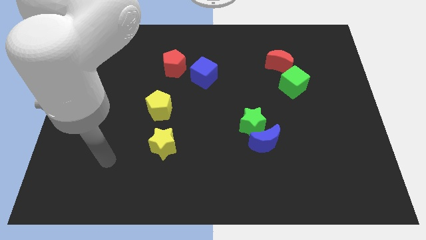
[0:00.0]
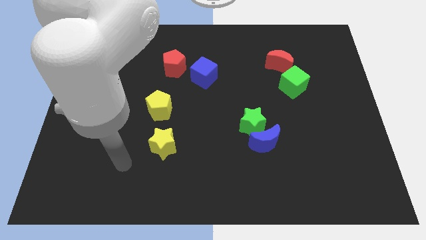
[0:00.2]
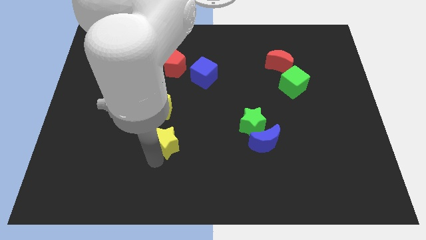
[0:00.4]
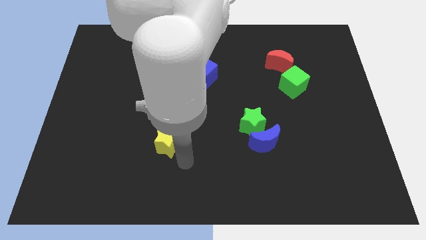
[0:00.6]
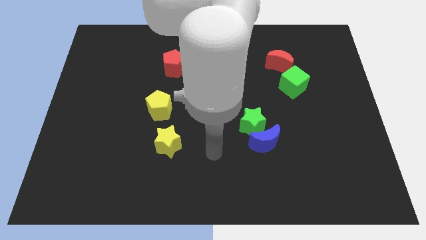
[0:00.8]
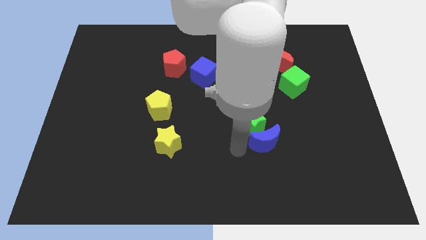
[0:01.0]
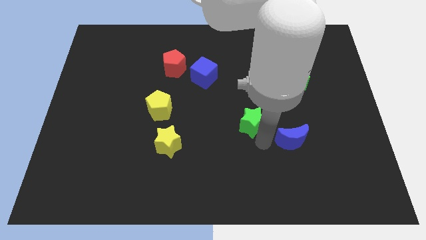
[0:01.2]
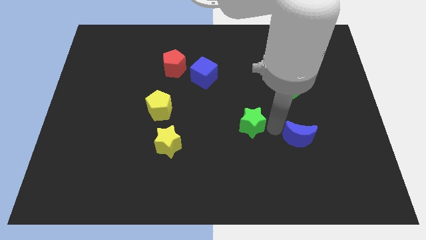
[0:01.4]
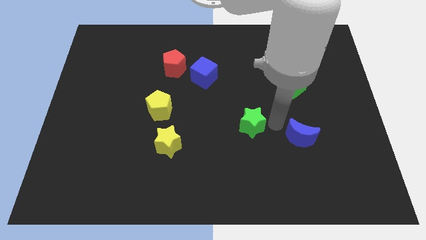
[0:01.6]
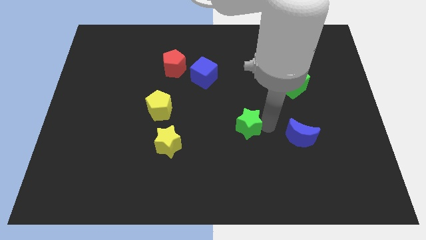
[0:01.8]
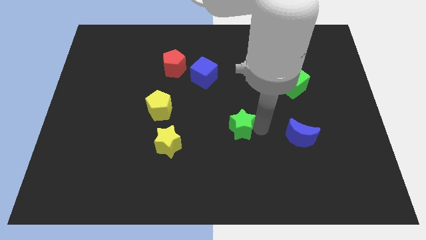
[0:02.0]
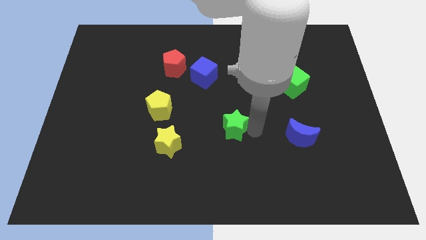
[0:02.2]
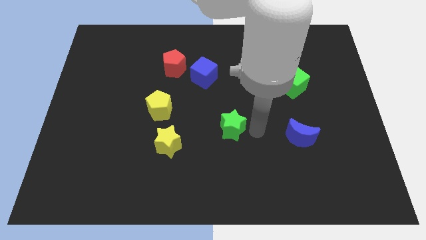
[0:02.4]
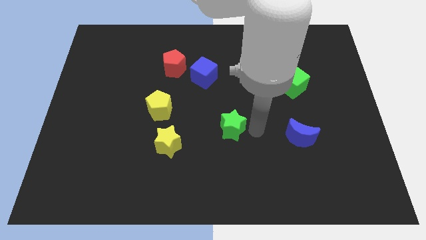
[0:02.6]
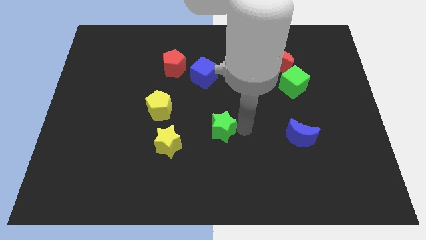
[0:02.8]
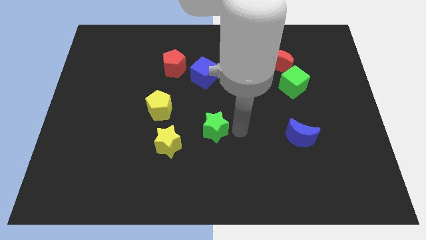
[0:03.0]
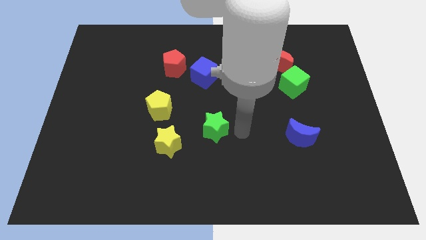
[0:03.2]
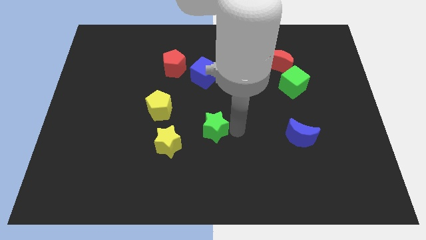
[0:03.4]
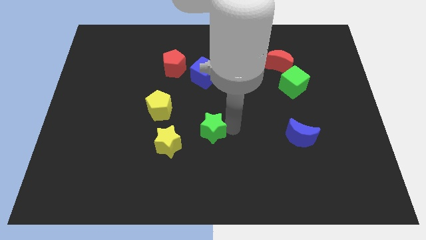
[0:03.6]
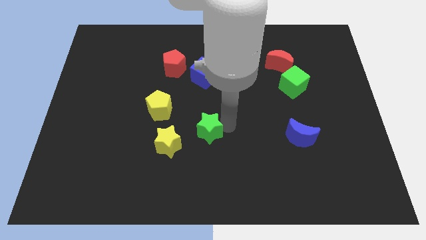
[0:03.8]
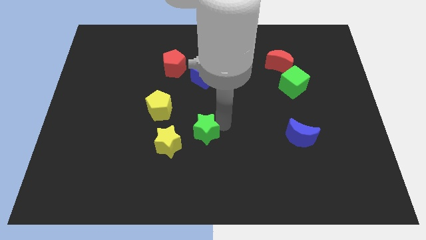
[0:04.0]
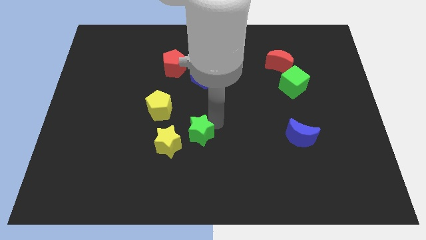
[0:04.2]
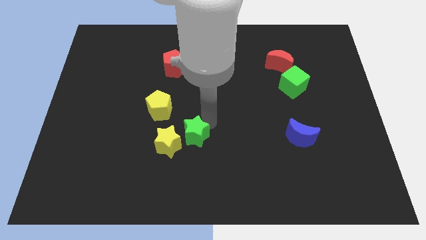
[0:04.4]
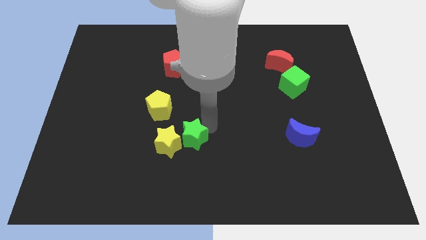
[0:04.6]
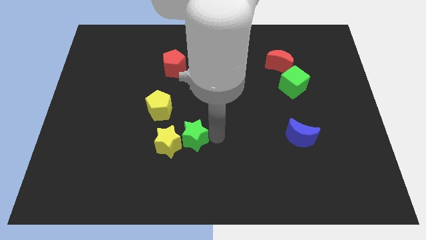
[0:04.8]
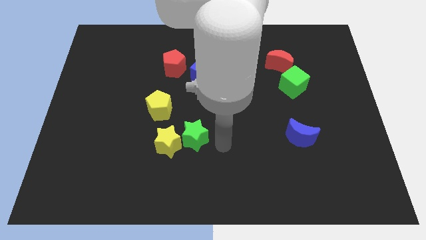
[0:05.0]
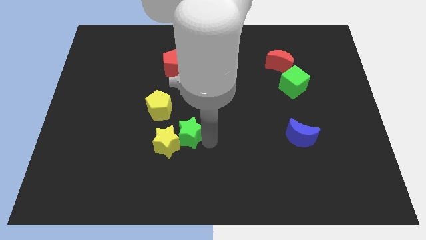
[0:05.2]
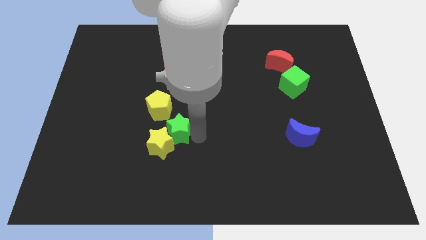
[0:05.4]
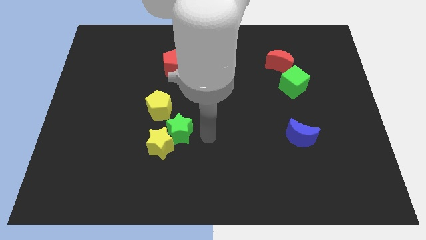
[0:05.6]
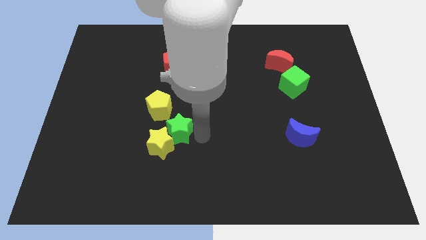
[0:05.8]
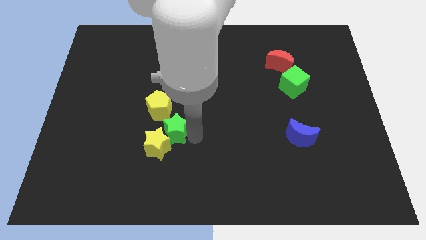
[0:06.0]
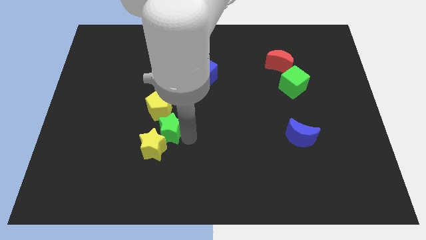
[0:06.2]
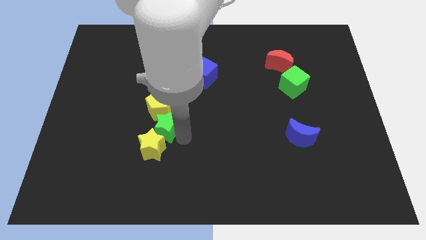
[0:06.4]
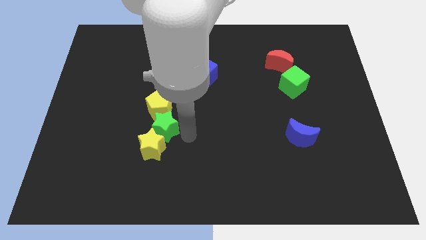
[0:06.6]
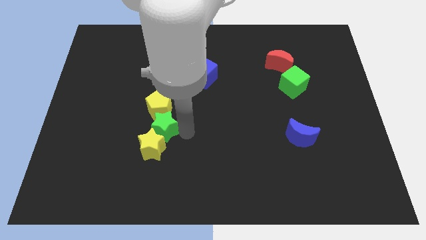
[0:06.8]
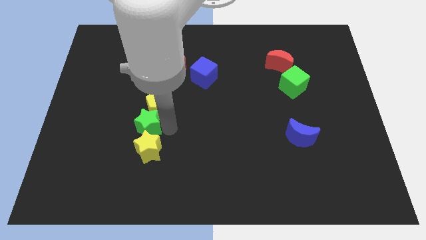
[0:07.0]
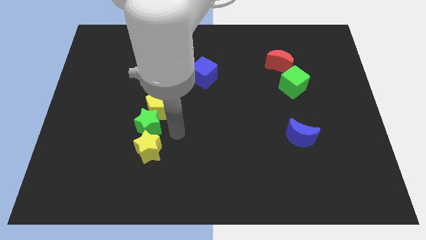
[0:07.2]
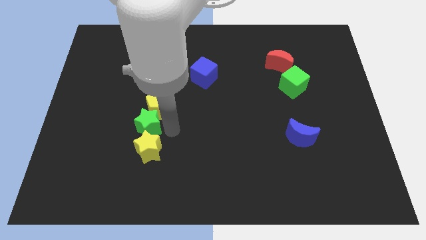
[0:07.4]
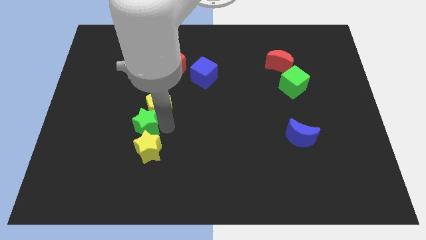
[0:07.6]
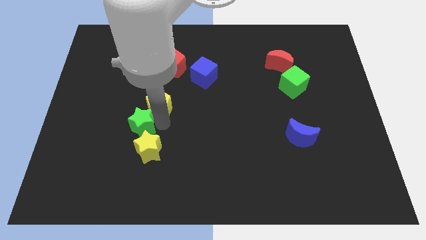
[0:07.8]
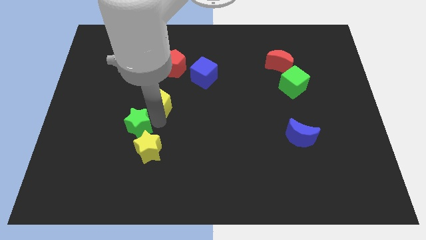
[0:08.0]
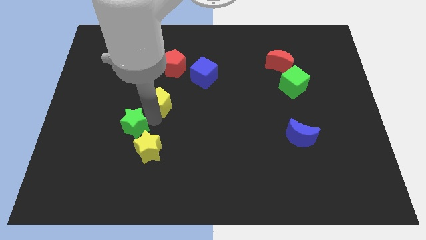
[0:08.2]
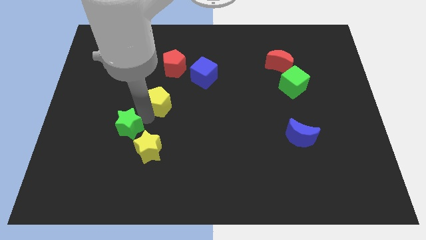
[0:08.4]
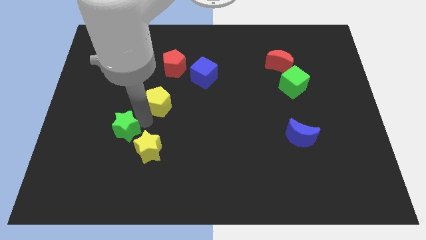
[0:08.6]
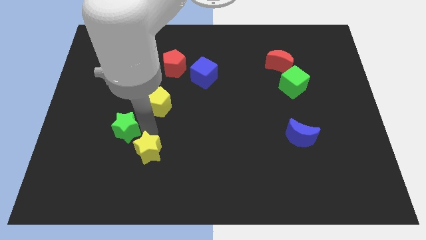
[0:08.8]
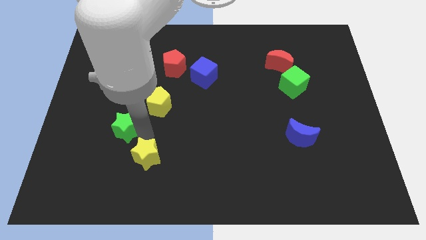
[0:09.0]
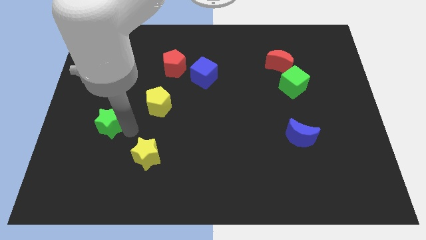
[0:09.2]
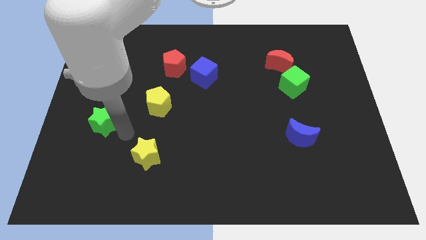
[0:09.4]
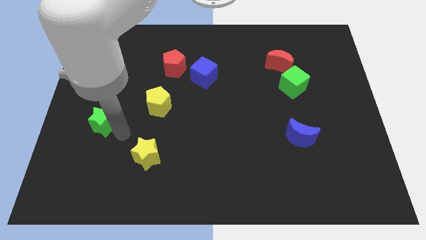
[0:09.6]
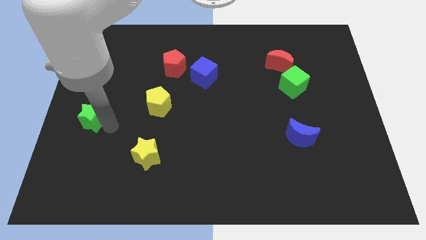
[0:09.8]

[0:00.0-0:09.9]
move the green star to the left side of the board

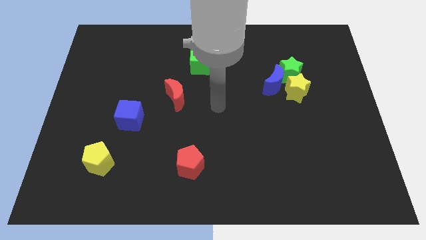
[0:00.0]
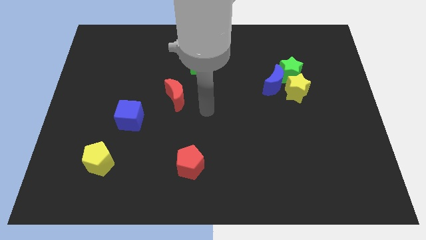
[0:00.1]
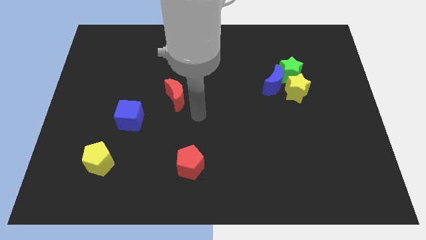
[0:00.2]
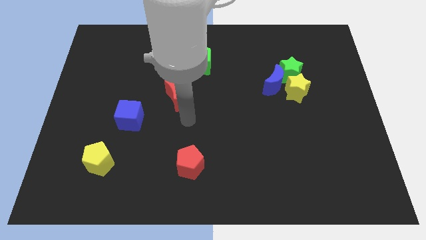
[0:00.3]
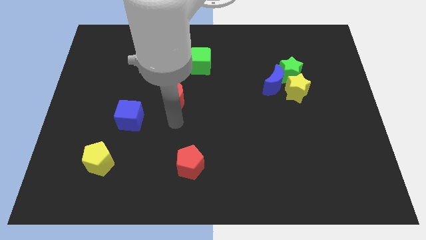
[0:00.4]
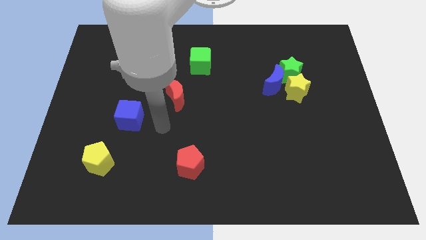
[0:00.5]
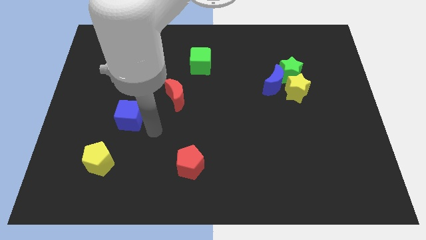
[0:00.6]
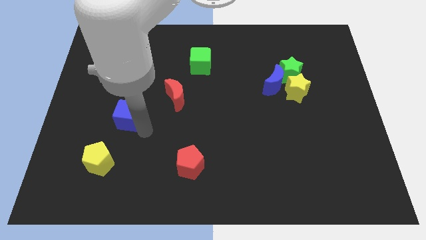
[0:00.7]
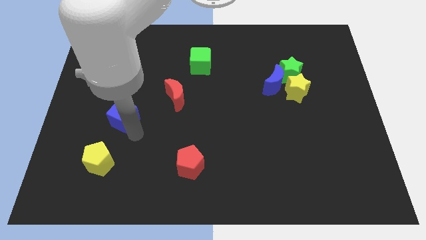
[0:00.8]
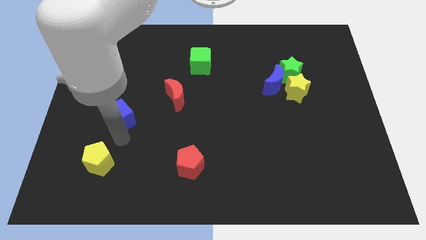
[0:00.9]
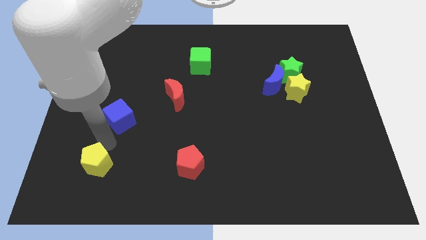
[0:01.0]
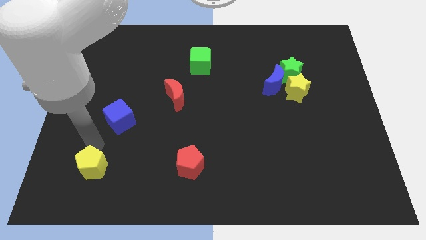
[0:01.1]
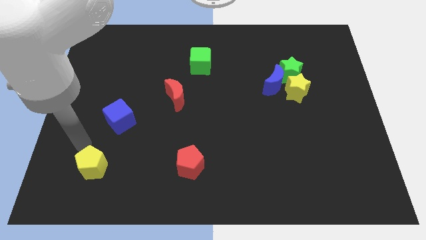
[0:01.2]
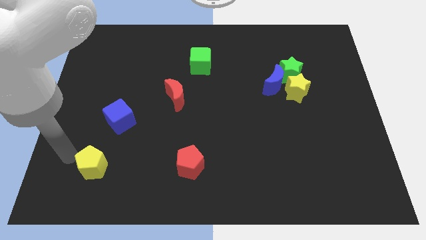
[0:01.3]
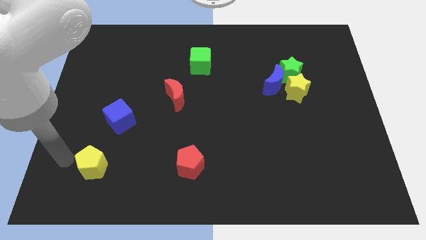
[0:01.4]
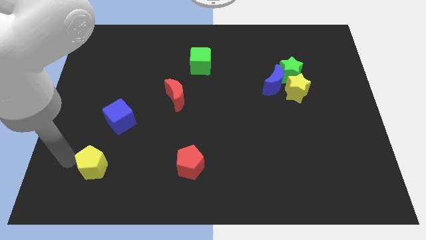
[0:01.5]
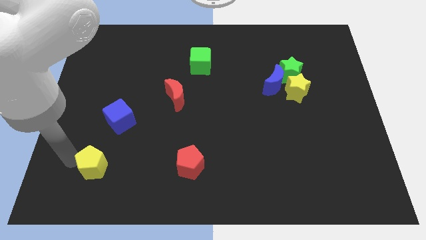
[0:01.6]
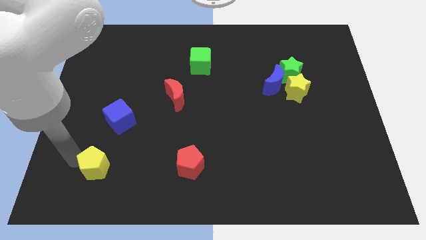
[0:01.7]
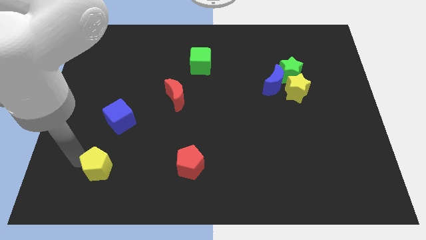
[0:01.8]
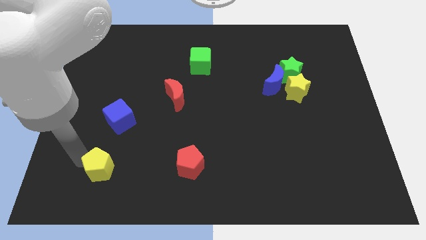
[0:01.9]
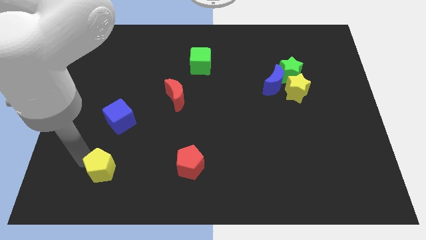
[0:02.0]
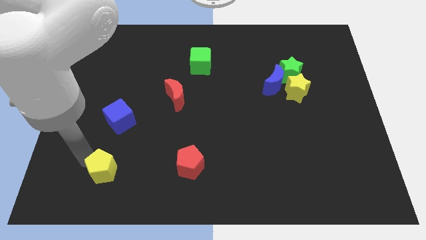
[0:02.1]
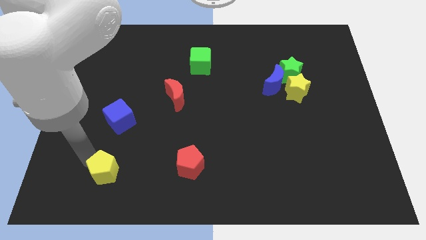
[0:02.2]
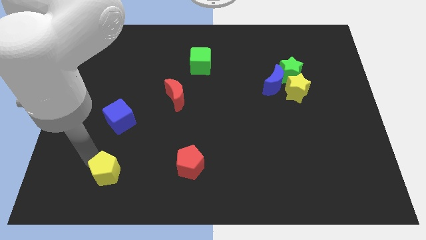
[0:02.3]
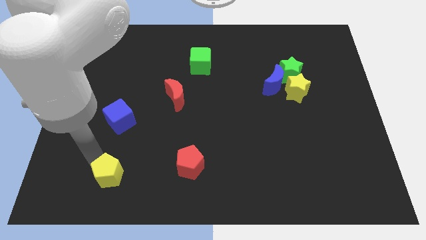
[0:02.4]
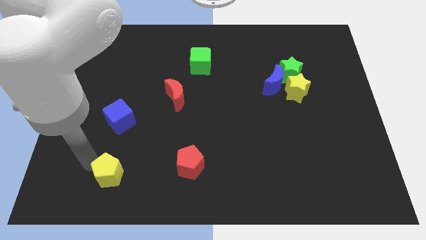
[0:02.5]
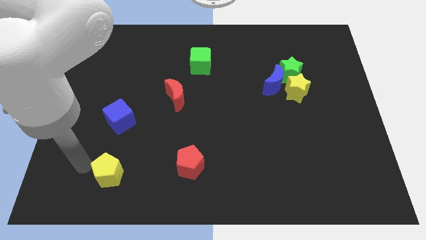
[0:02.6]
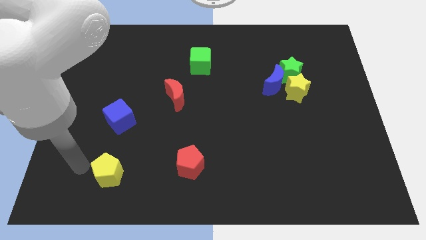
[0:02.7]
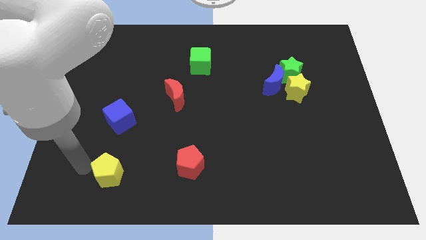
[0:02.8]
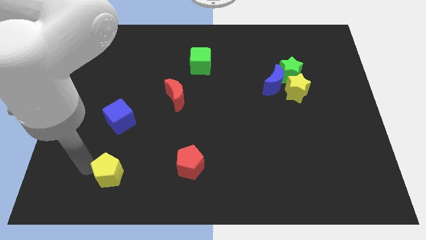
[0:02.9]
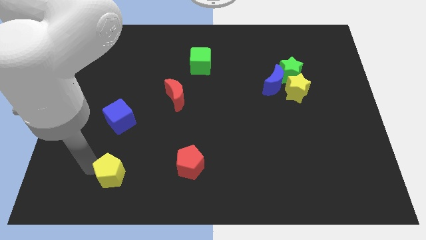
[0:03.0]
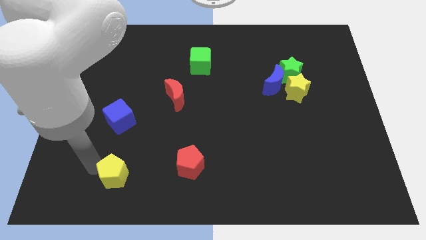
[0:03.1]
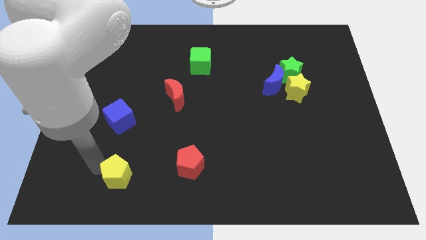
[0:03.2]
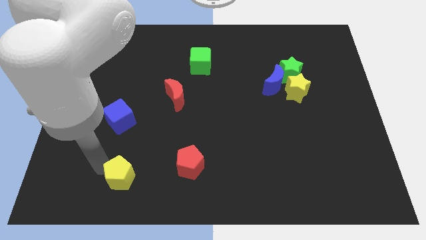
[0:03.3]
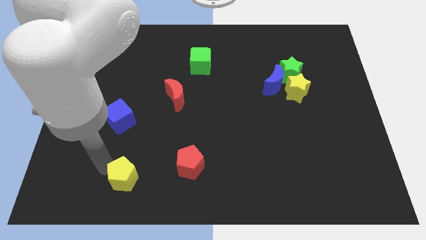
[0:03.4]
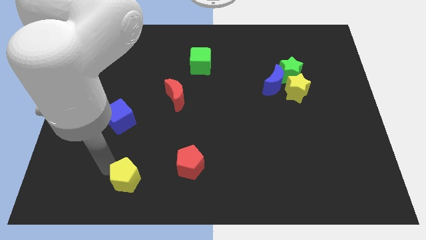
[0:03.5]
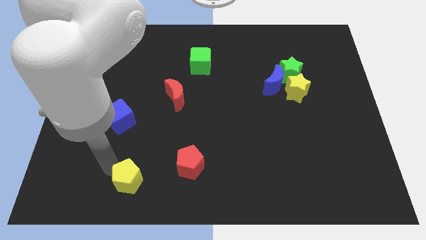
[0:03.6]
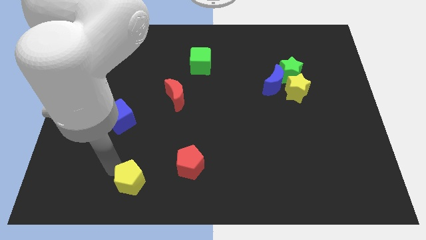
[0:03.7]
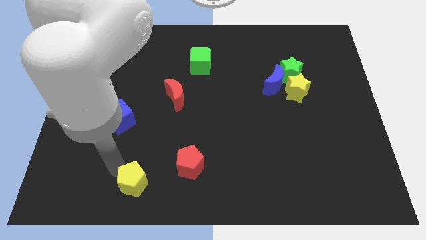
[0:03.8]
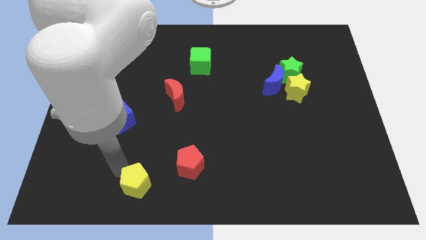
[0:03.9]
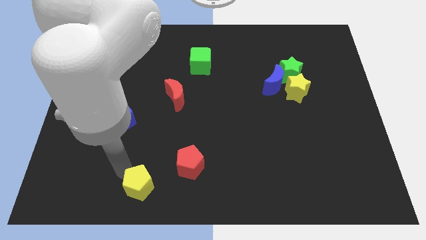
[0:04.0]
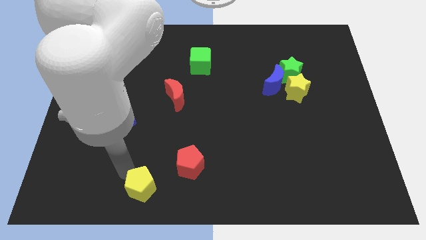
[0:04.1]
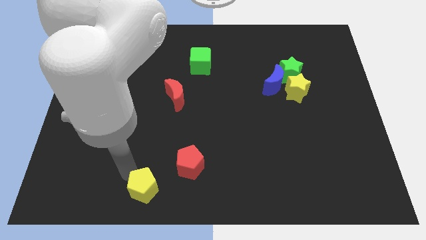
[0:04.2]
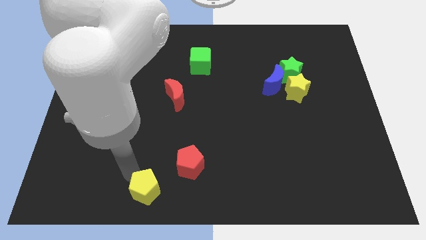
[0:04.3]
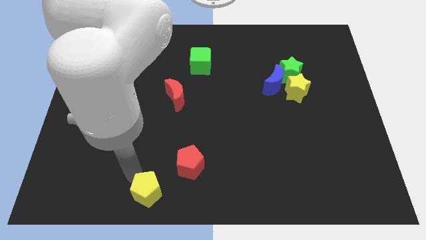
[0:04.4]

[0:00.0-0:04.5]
slide the yellow pentagon to the bottom
